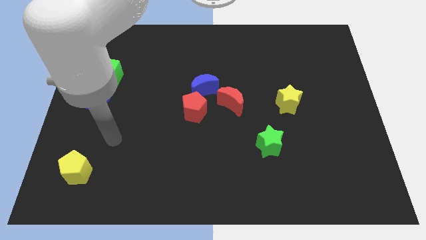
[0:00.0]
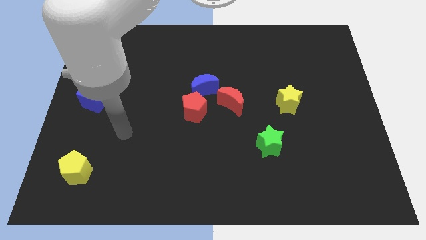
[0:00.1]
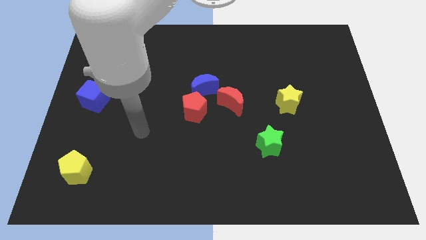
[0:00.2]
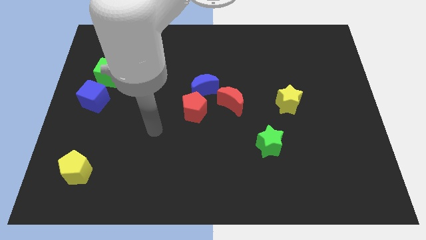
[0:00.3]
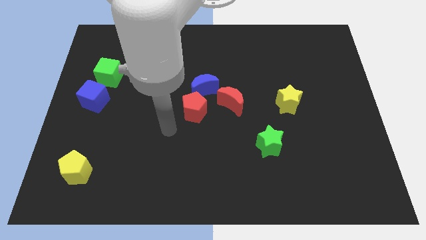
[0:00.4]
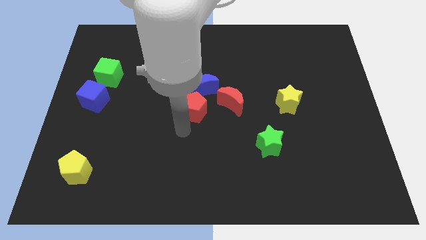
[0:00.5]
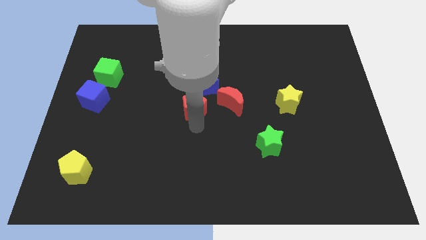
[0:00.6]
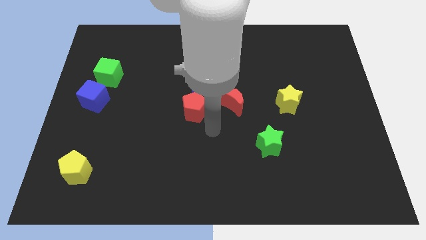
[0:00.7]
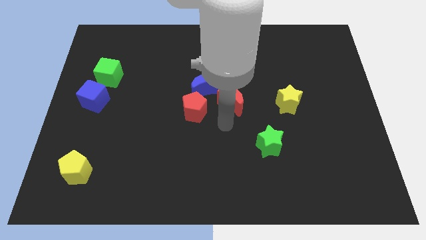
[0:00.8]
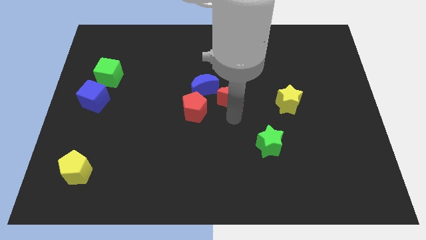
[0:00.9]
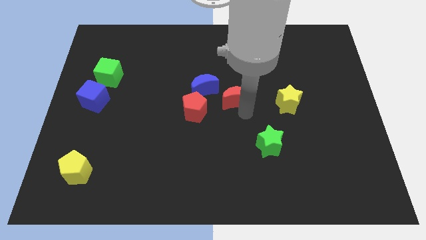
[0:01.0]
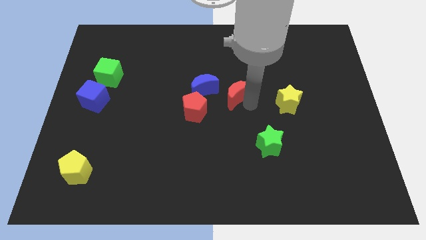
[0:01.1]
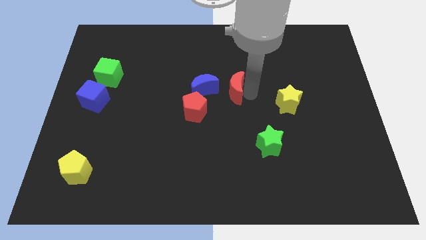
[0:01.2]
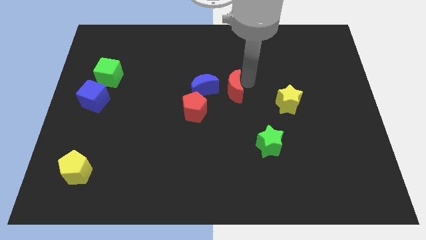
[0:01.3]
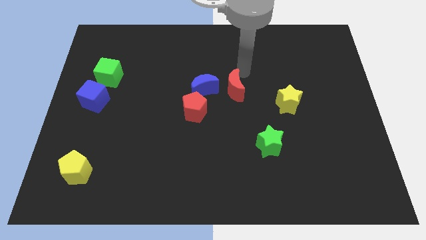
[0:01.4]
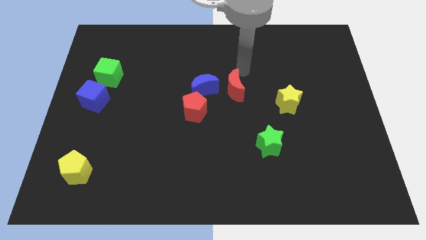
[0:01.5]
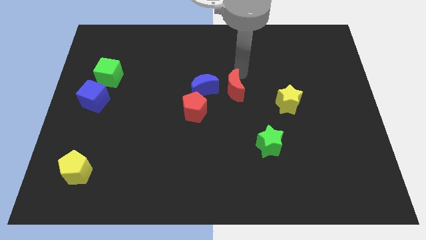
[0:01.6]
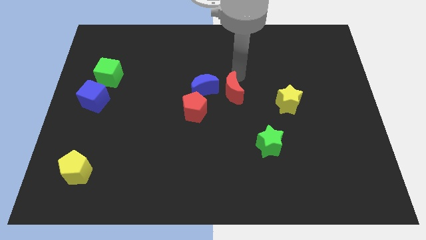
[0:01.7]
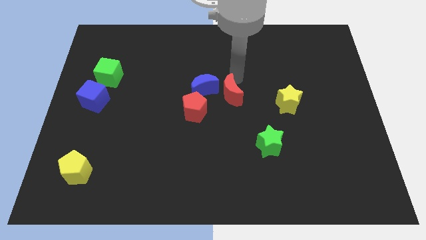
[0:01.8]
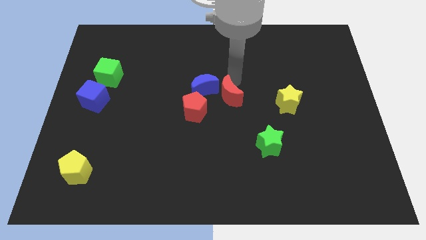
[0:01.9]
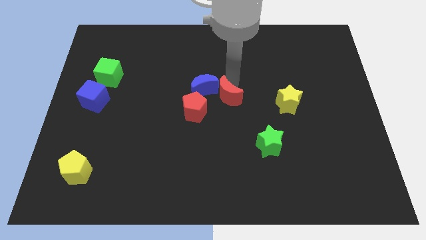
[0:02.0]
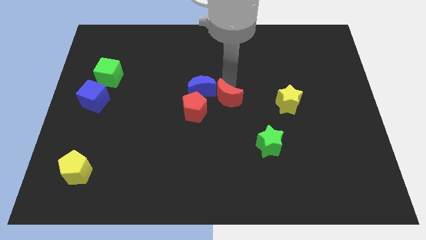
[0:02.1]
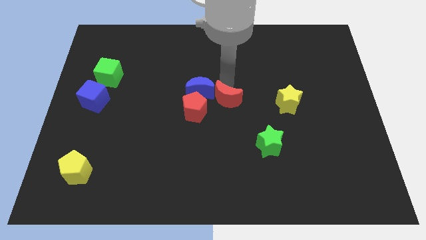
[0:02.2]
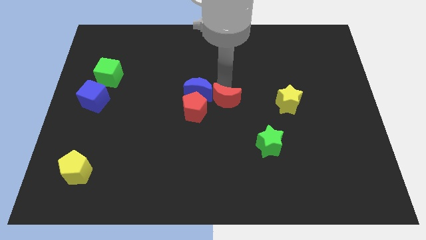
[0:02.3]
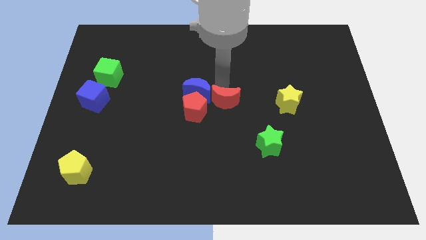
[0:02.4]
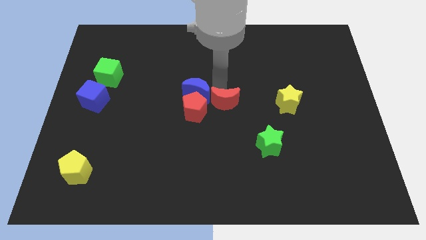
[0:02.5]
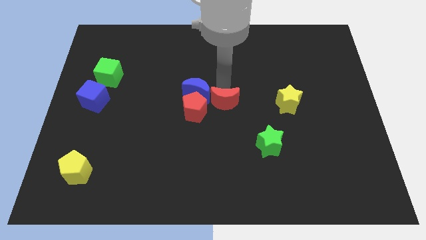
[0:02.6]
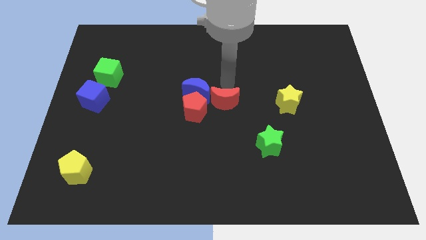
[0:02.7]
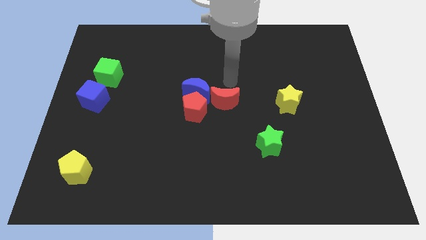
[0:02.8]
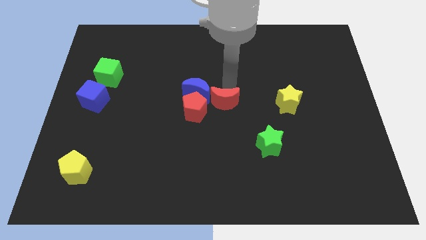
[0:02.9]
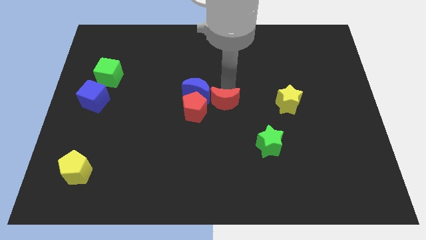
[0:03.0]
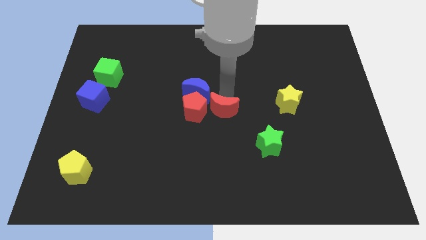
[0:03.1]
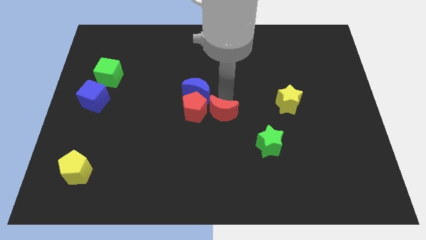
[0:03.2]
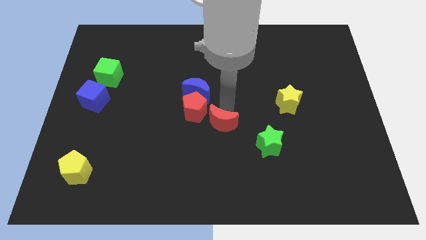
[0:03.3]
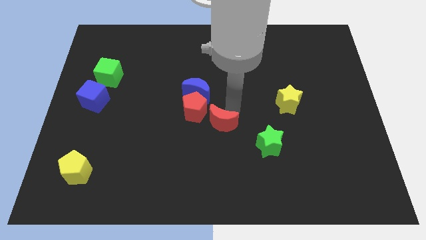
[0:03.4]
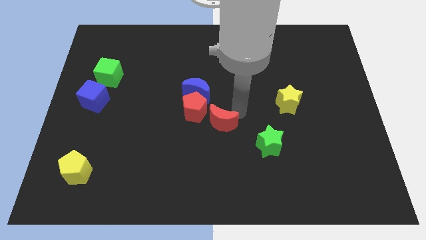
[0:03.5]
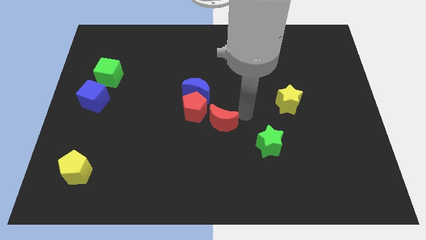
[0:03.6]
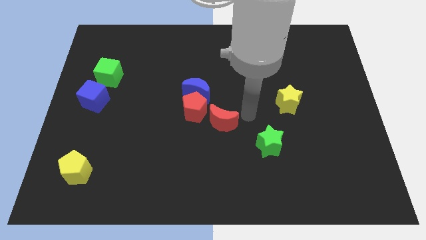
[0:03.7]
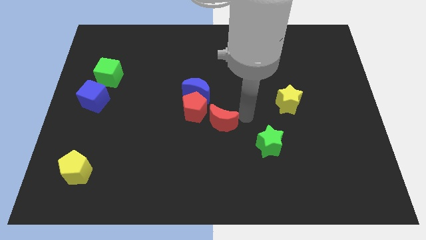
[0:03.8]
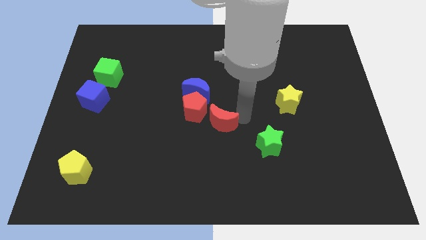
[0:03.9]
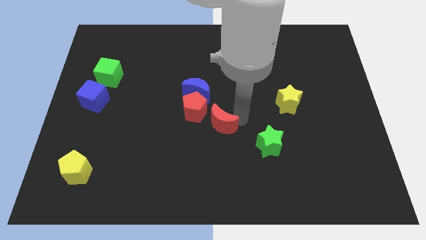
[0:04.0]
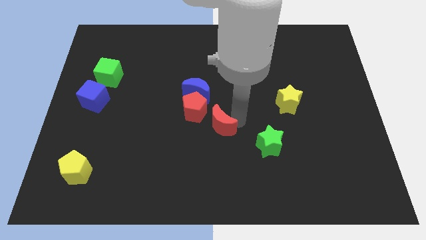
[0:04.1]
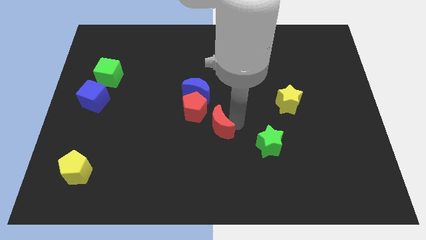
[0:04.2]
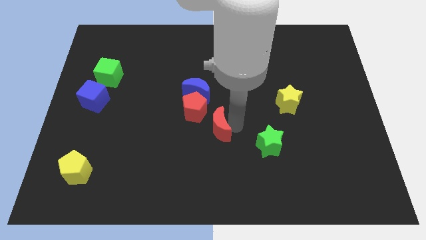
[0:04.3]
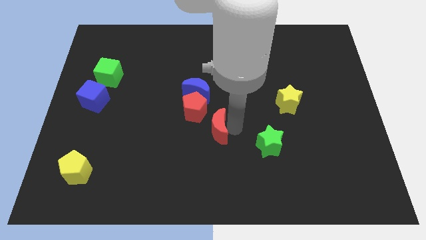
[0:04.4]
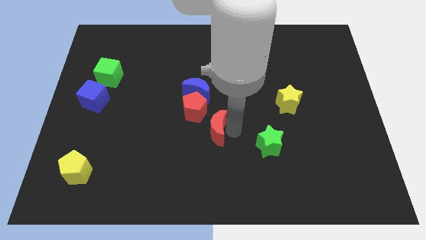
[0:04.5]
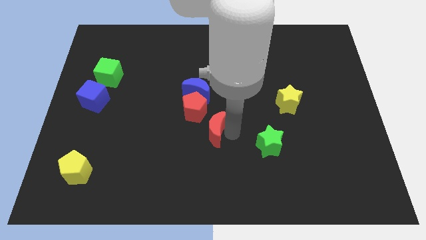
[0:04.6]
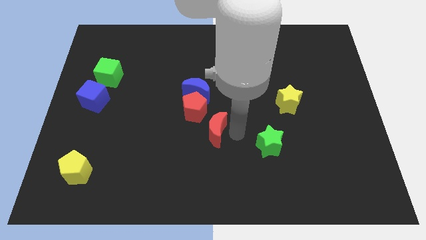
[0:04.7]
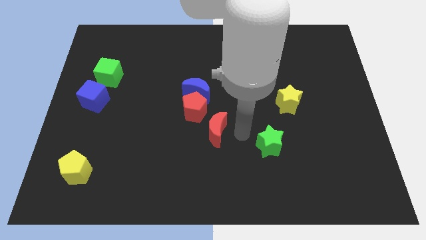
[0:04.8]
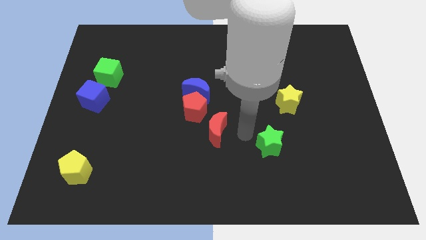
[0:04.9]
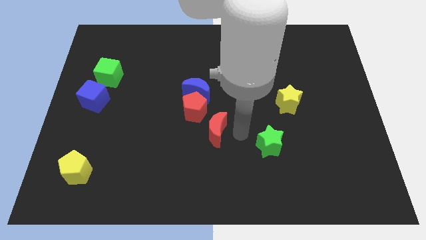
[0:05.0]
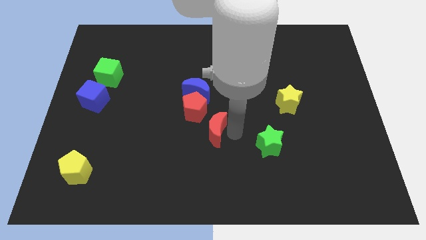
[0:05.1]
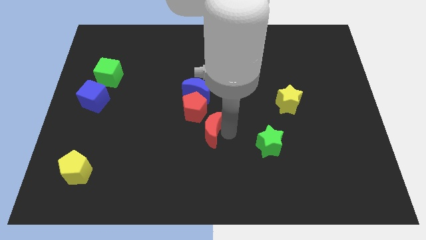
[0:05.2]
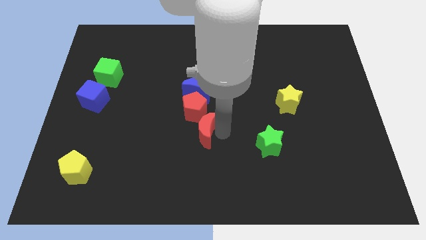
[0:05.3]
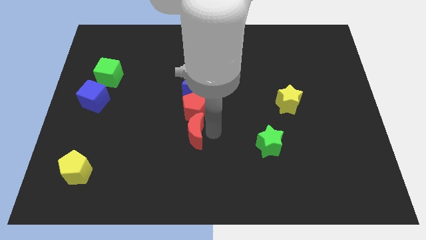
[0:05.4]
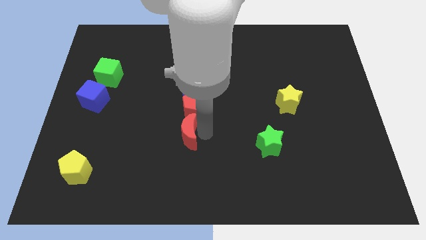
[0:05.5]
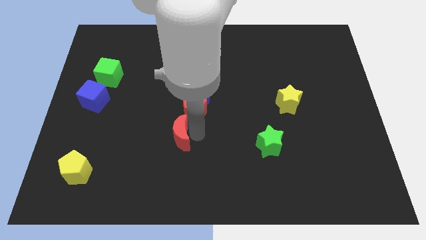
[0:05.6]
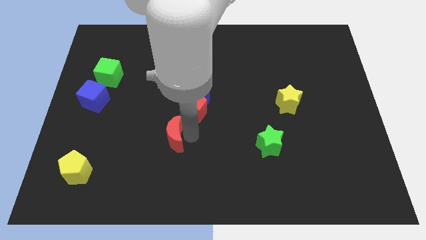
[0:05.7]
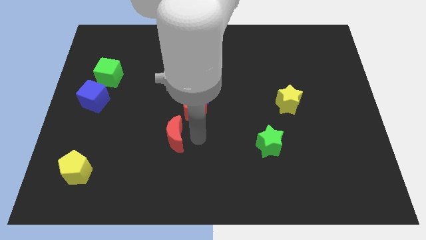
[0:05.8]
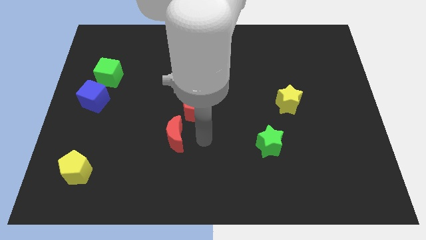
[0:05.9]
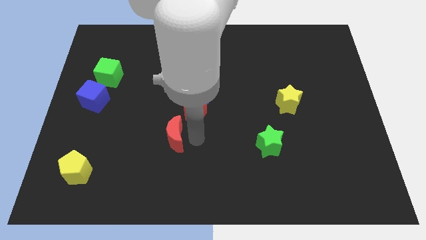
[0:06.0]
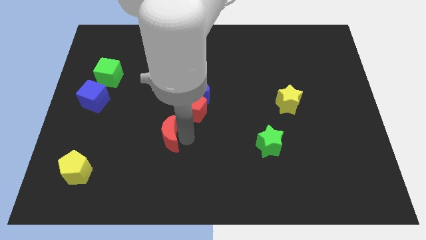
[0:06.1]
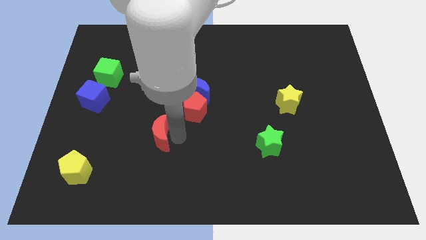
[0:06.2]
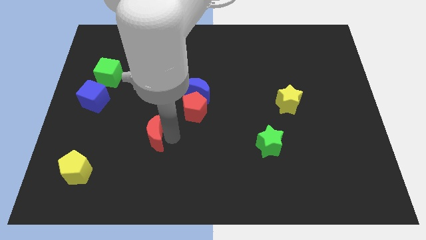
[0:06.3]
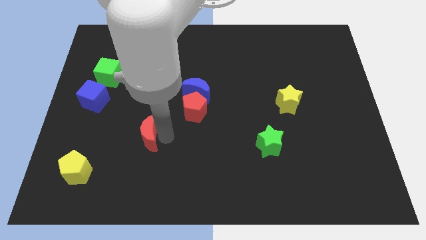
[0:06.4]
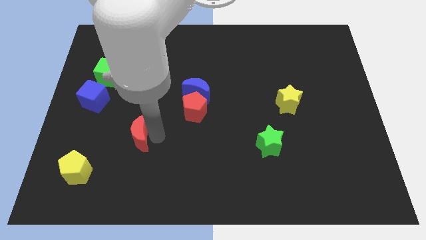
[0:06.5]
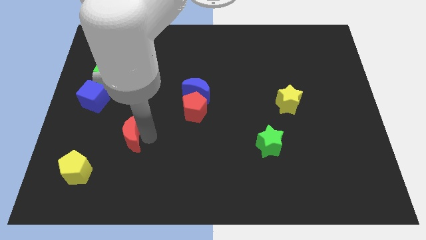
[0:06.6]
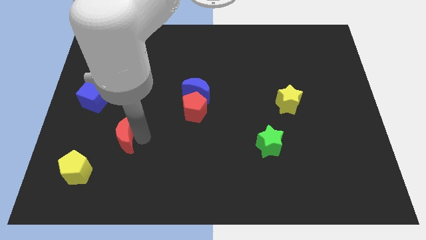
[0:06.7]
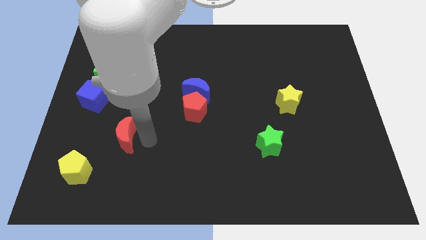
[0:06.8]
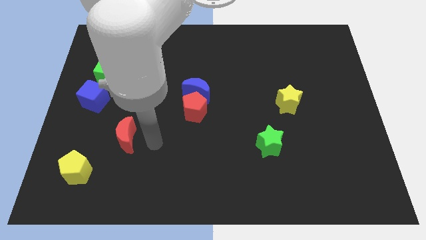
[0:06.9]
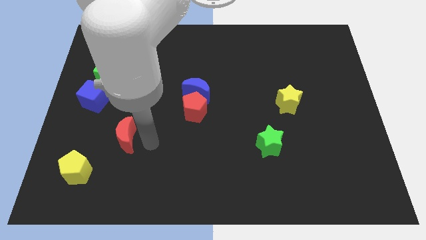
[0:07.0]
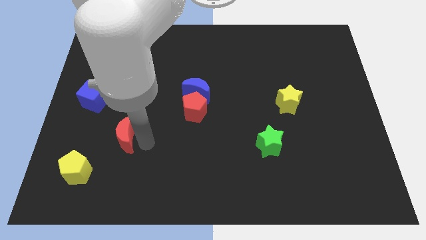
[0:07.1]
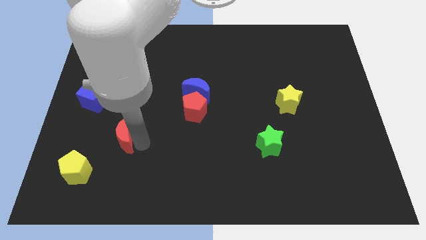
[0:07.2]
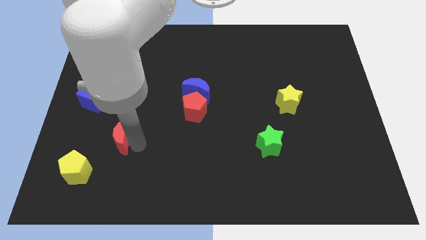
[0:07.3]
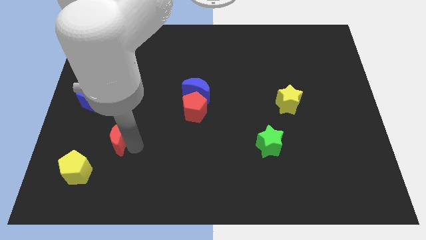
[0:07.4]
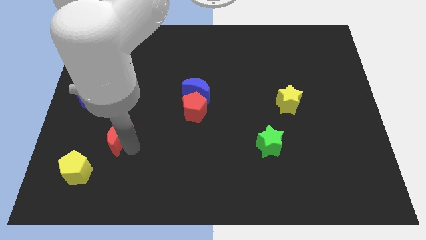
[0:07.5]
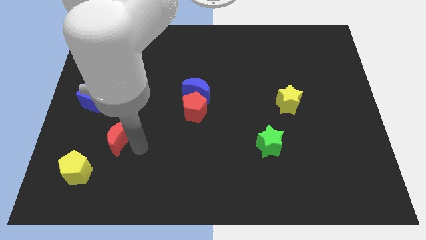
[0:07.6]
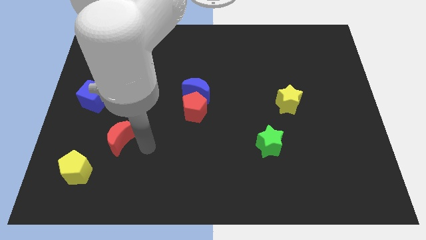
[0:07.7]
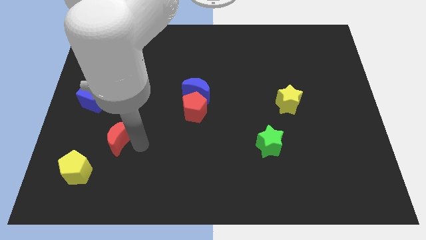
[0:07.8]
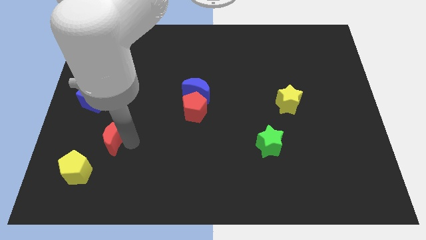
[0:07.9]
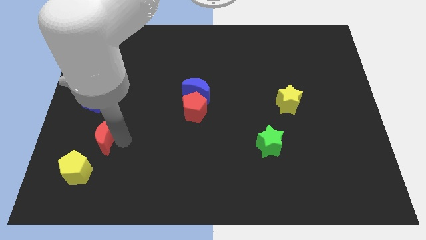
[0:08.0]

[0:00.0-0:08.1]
slide the red moon to the top side of the yellow pentagon
